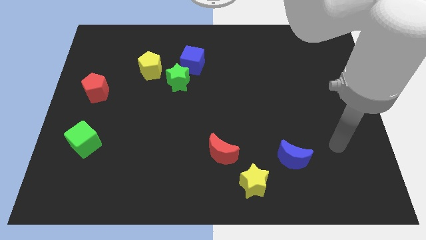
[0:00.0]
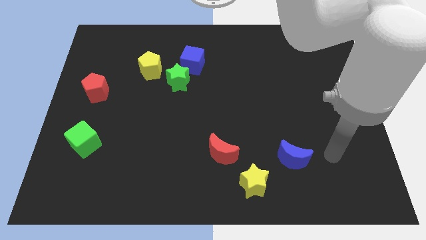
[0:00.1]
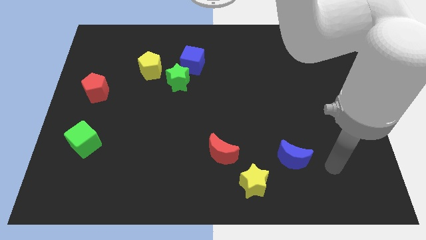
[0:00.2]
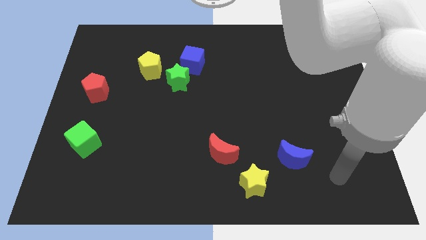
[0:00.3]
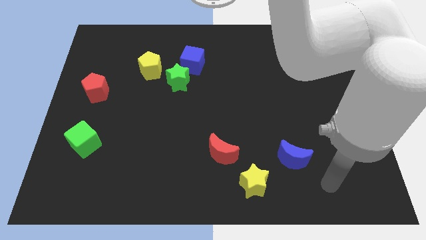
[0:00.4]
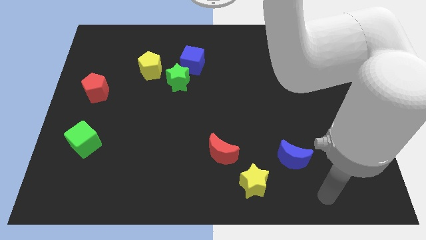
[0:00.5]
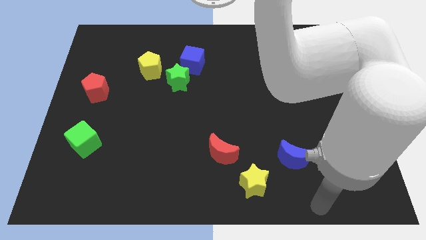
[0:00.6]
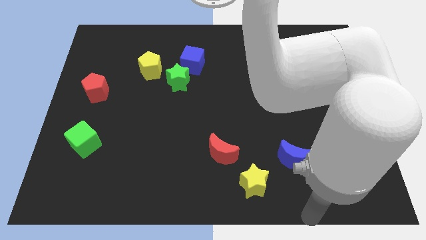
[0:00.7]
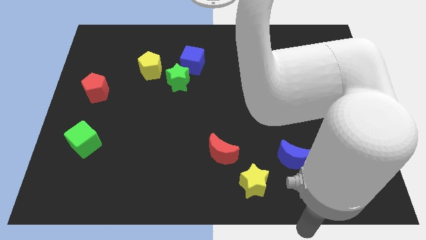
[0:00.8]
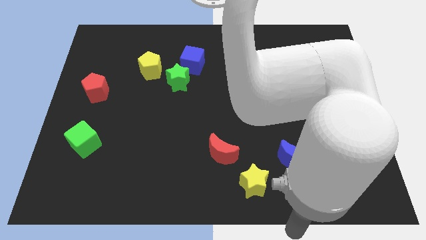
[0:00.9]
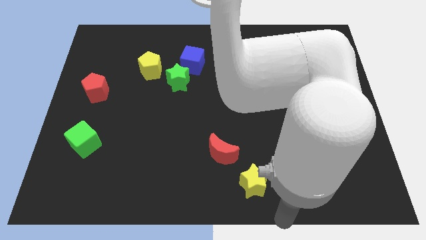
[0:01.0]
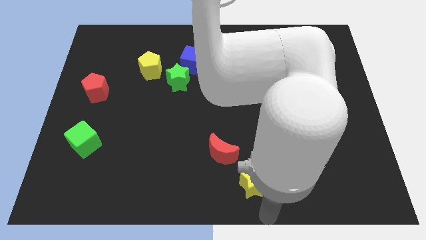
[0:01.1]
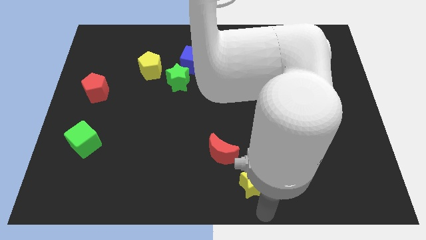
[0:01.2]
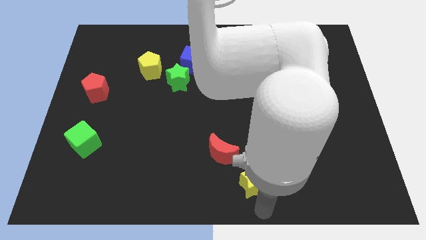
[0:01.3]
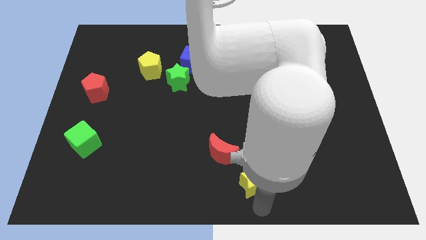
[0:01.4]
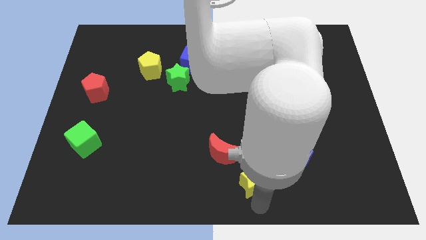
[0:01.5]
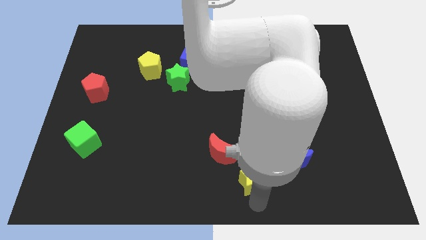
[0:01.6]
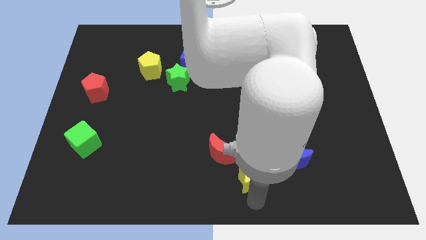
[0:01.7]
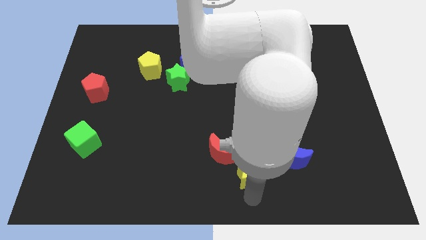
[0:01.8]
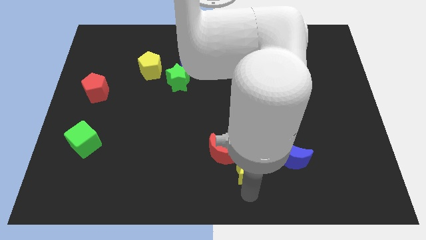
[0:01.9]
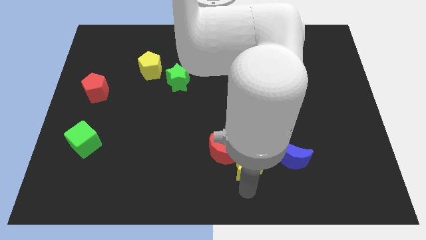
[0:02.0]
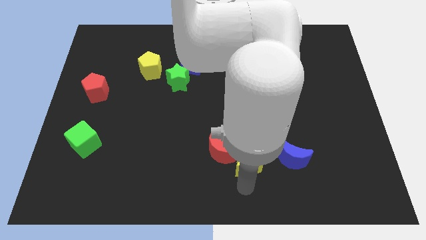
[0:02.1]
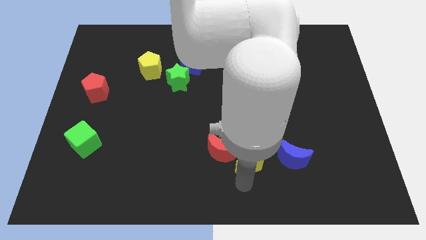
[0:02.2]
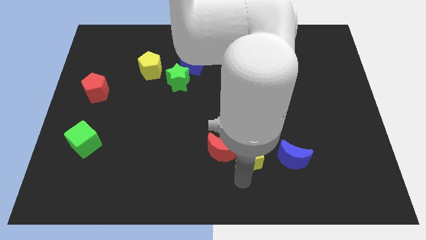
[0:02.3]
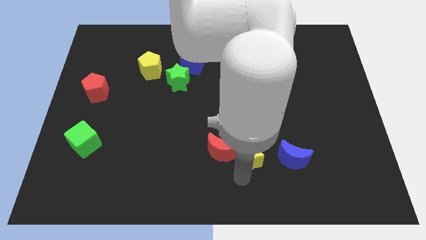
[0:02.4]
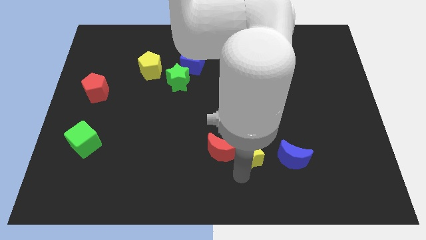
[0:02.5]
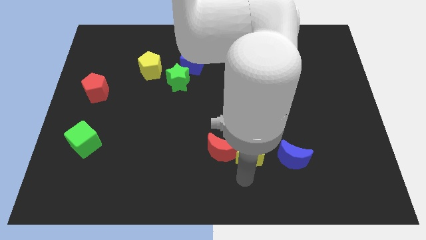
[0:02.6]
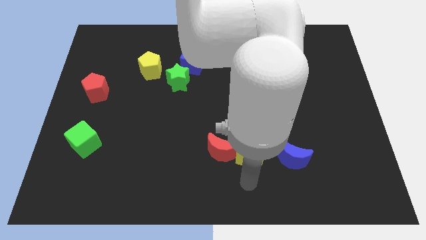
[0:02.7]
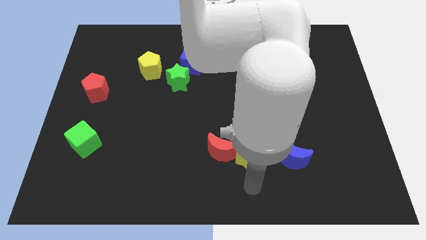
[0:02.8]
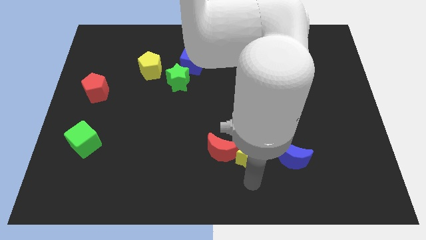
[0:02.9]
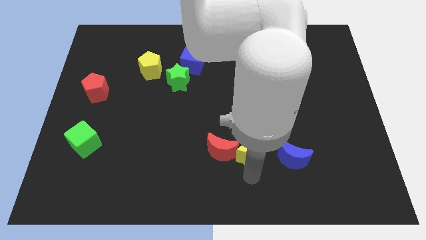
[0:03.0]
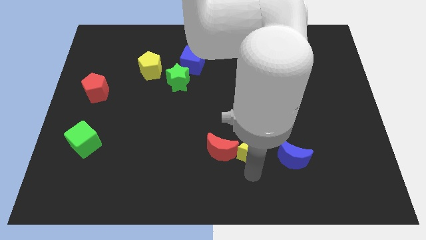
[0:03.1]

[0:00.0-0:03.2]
push the yellow star a little up

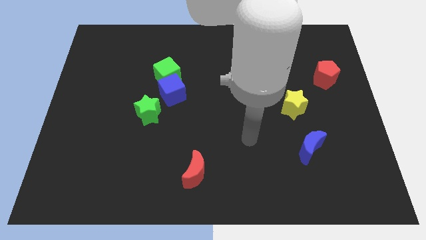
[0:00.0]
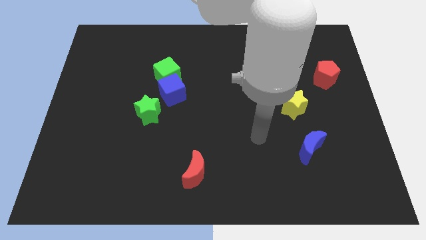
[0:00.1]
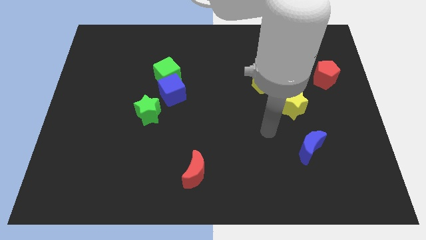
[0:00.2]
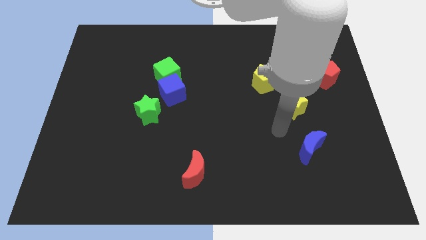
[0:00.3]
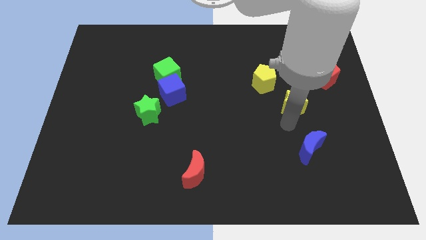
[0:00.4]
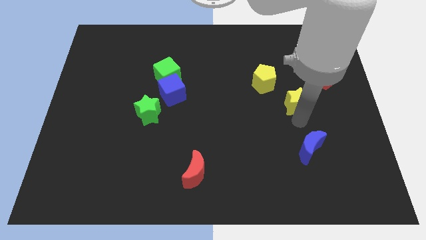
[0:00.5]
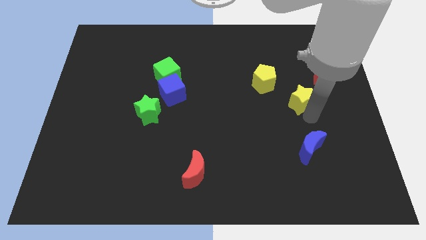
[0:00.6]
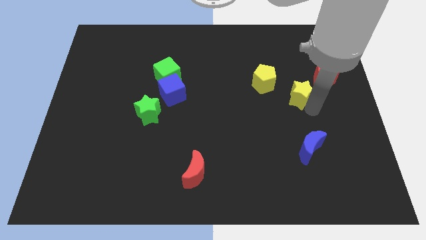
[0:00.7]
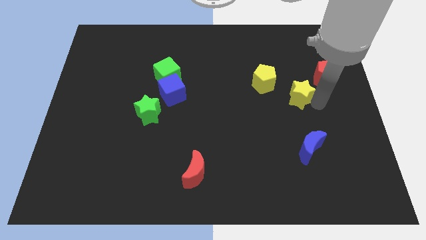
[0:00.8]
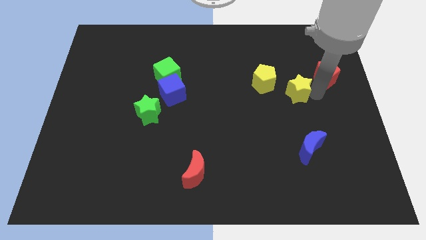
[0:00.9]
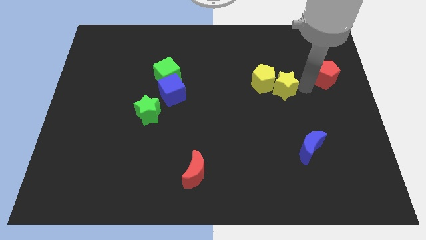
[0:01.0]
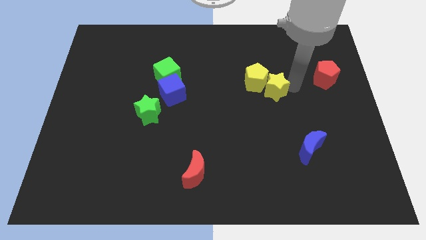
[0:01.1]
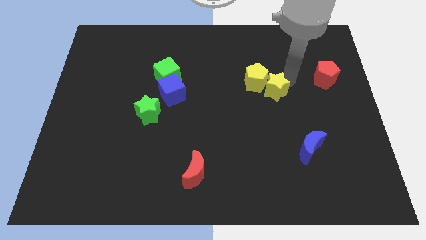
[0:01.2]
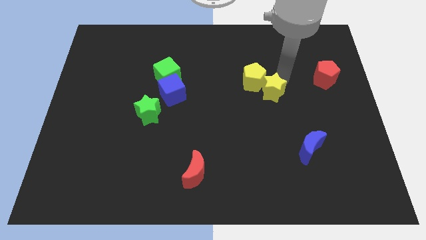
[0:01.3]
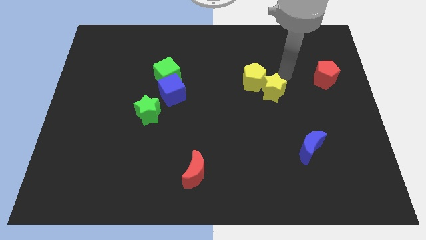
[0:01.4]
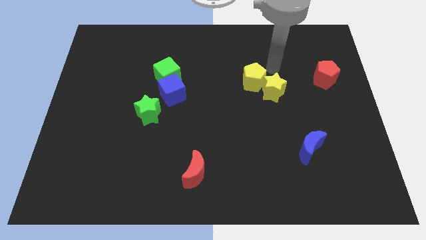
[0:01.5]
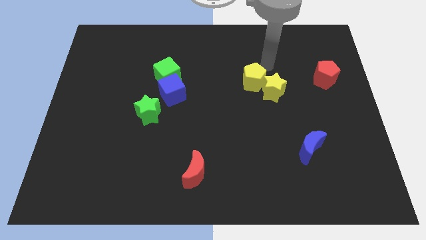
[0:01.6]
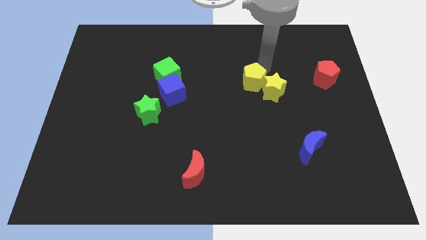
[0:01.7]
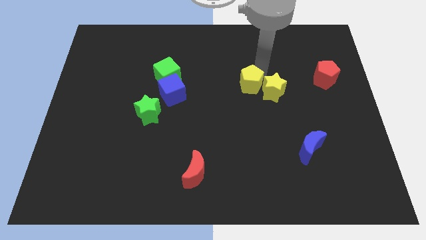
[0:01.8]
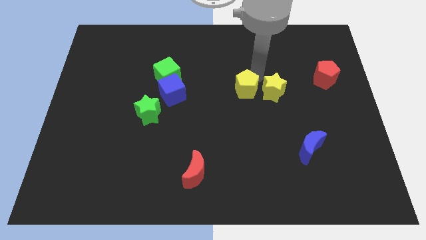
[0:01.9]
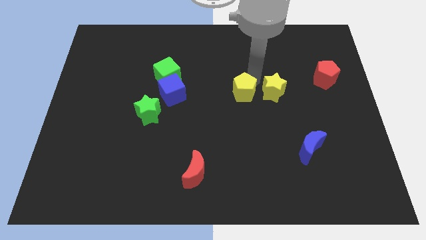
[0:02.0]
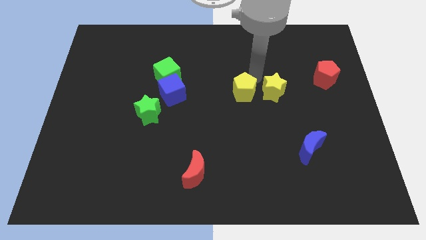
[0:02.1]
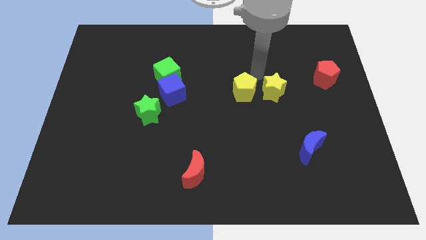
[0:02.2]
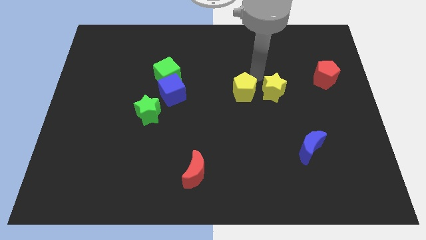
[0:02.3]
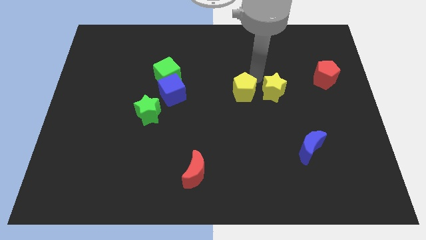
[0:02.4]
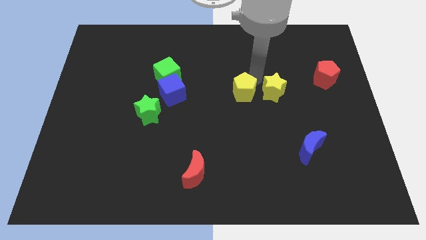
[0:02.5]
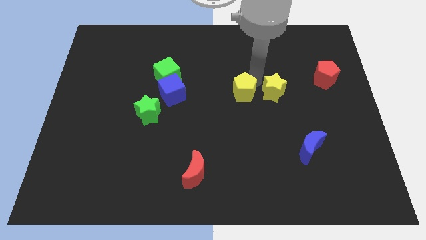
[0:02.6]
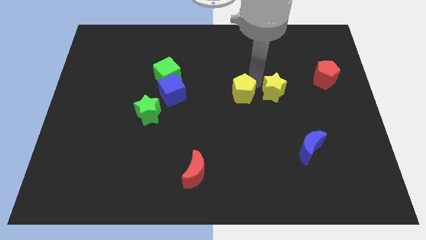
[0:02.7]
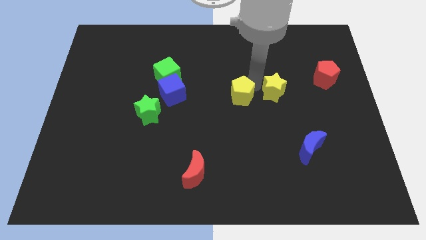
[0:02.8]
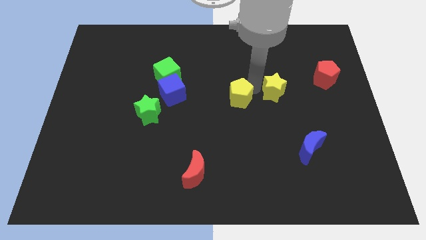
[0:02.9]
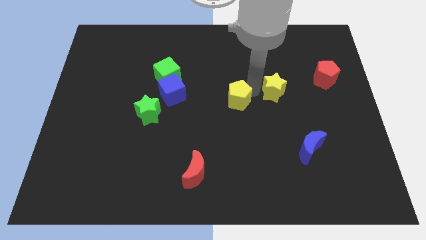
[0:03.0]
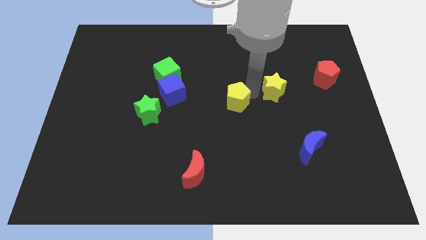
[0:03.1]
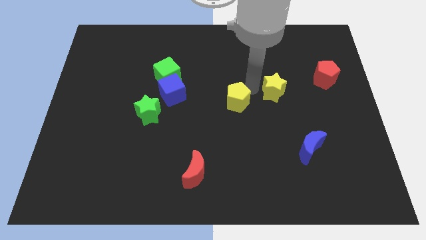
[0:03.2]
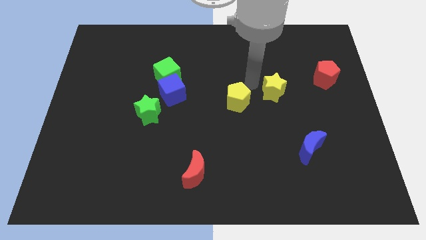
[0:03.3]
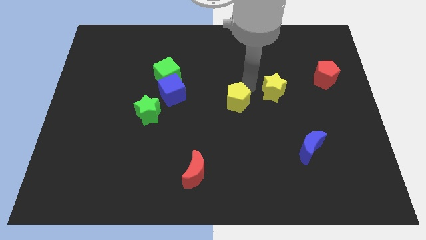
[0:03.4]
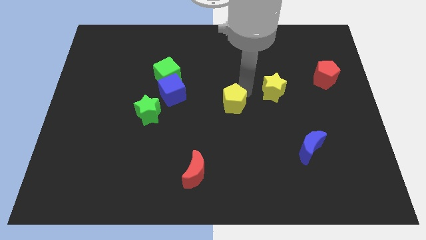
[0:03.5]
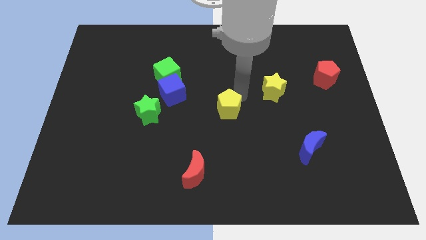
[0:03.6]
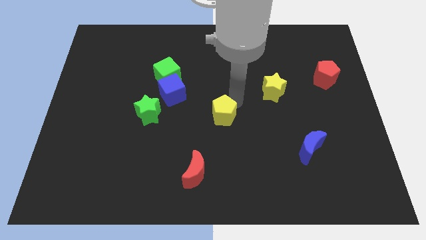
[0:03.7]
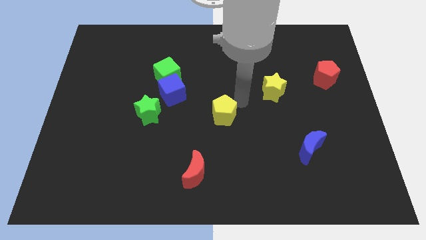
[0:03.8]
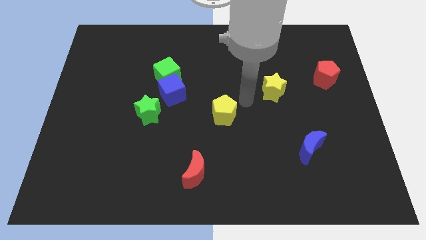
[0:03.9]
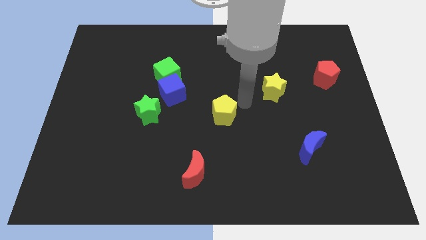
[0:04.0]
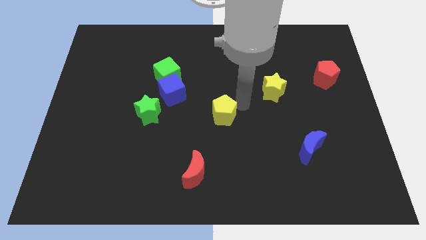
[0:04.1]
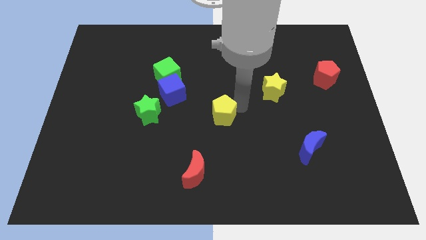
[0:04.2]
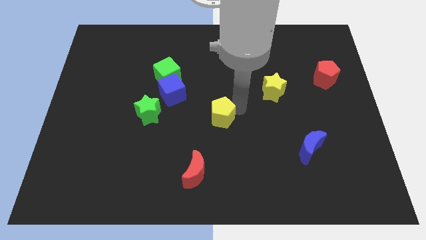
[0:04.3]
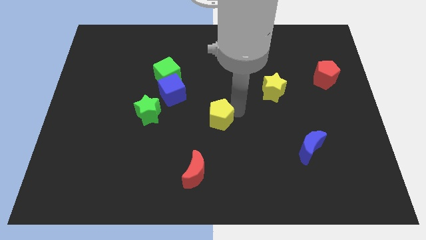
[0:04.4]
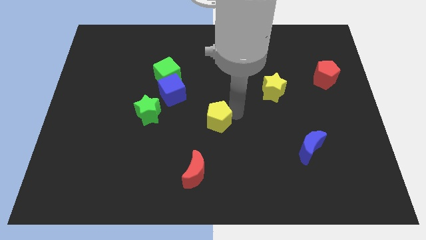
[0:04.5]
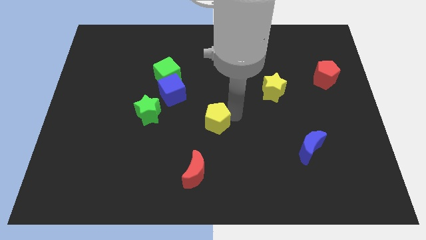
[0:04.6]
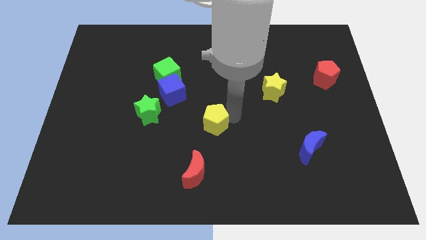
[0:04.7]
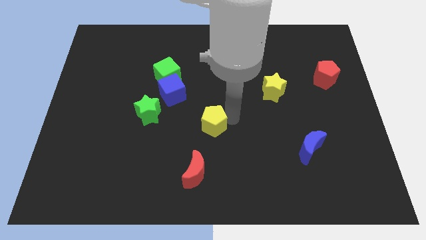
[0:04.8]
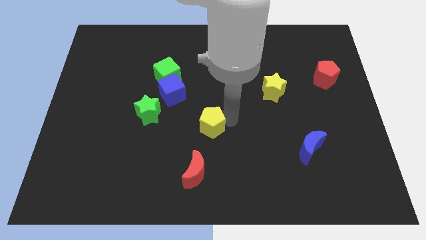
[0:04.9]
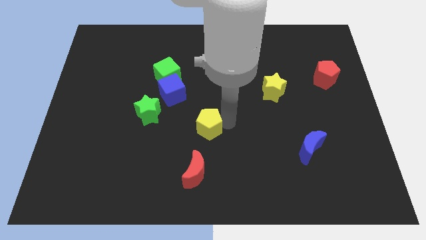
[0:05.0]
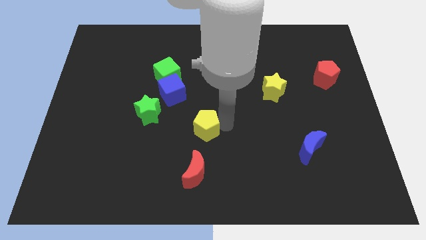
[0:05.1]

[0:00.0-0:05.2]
push the yellow pentagon down and to the left diagonally
